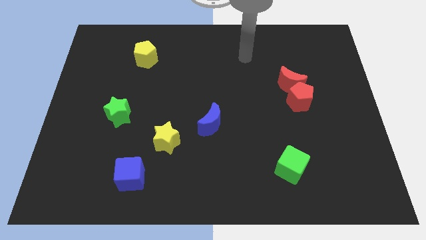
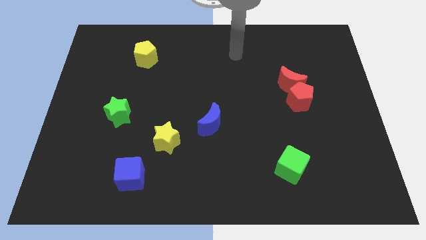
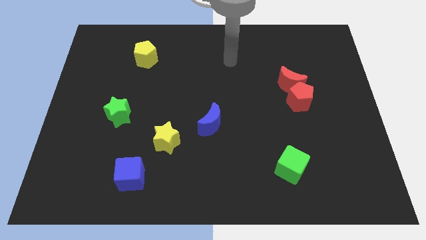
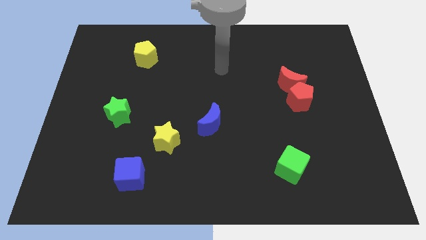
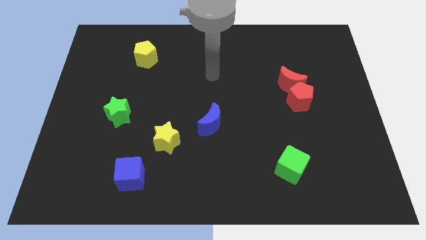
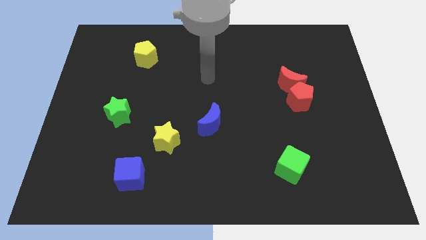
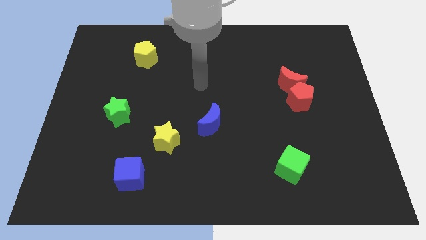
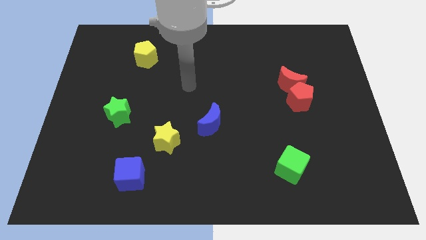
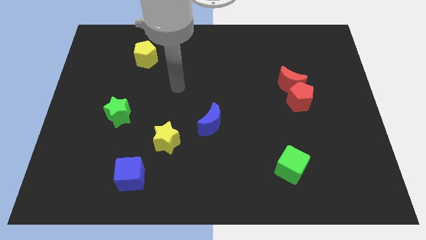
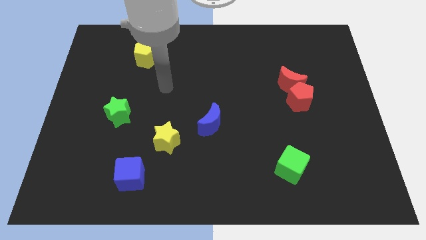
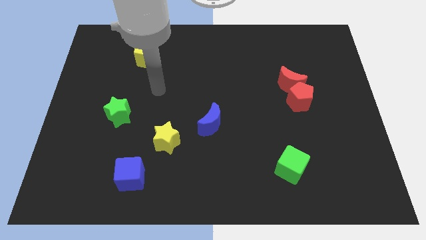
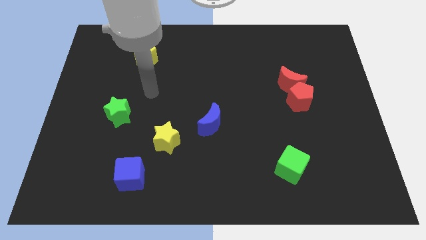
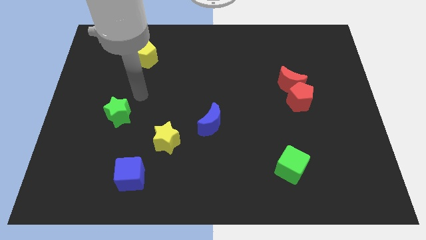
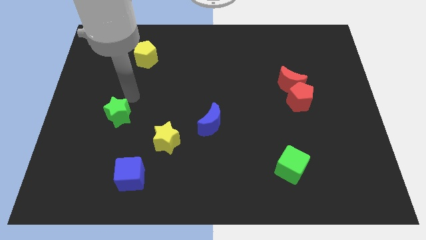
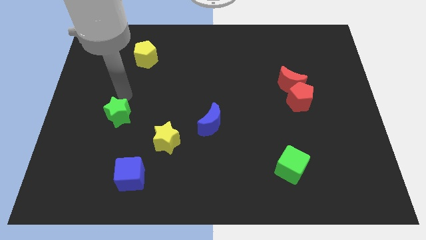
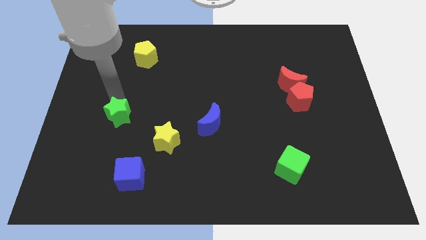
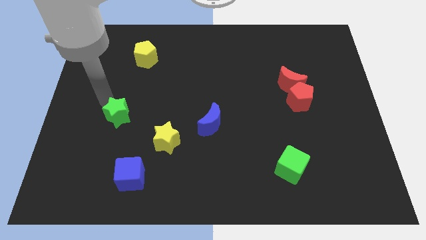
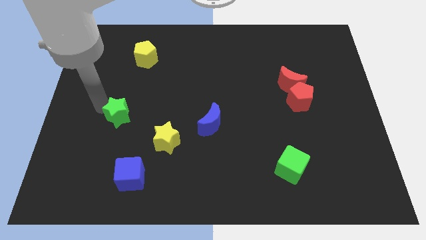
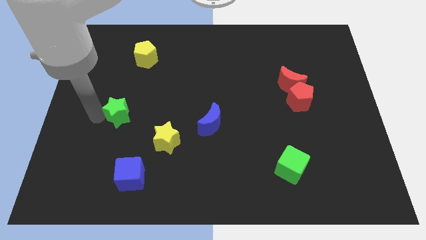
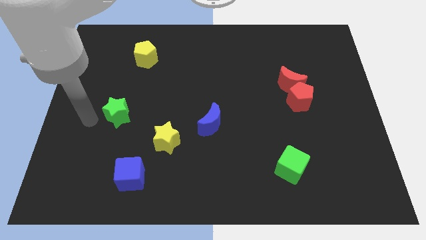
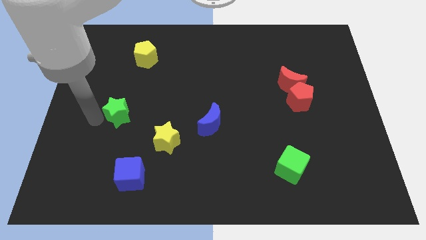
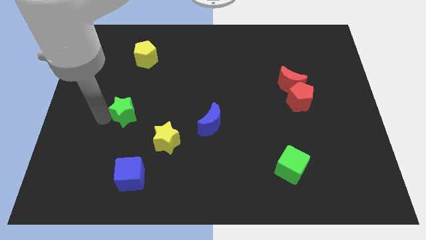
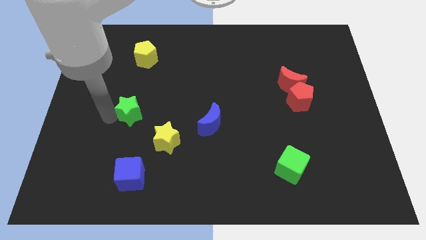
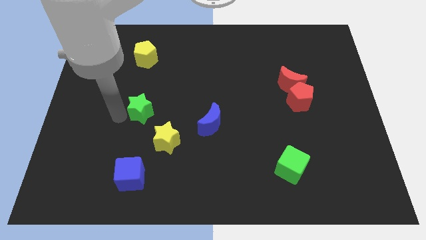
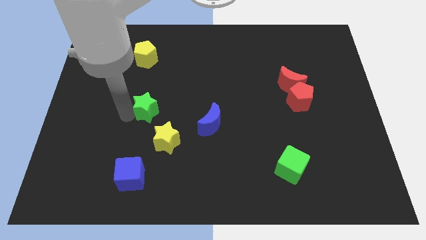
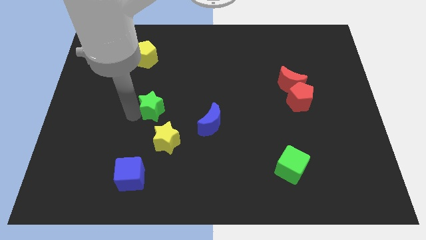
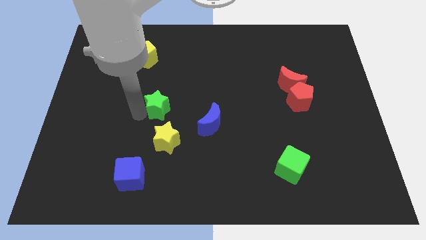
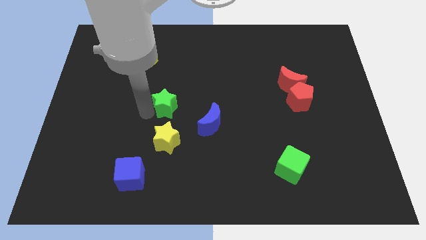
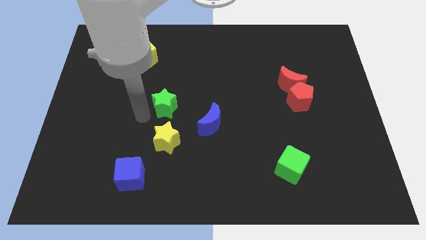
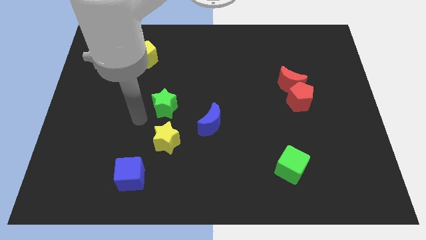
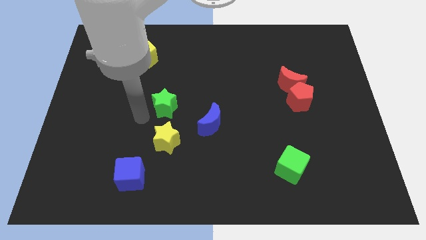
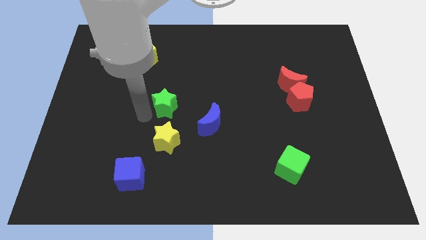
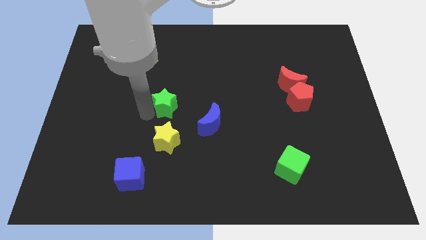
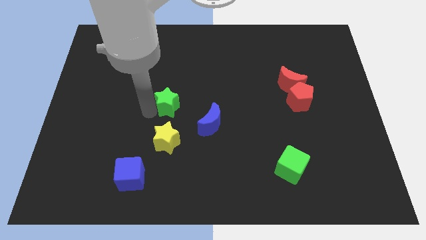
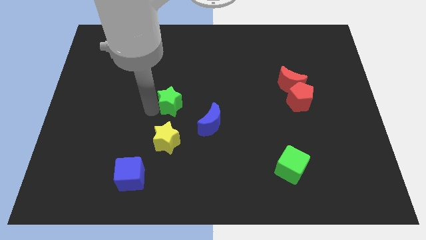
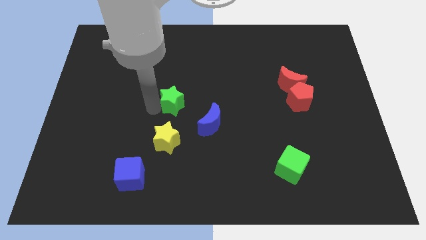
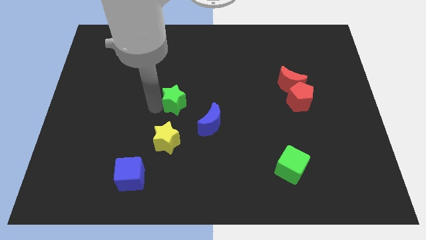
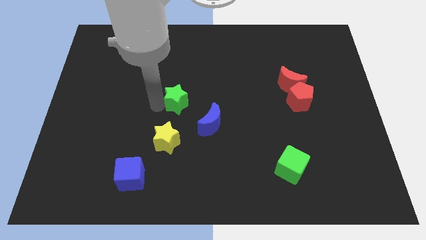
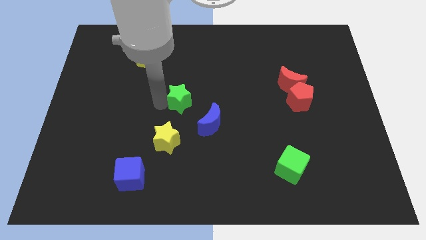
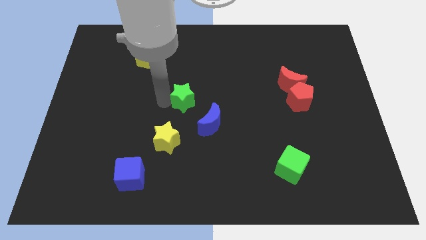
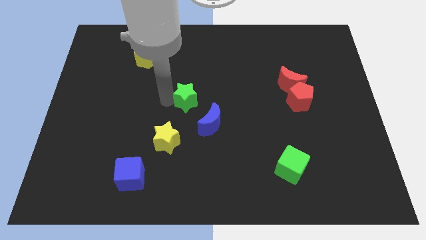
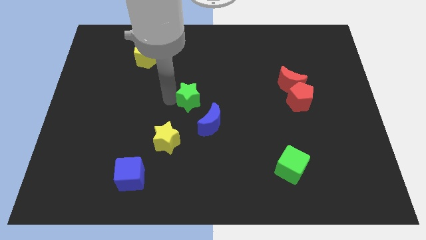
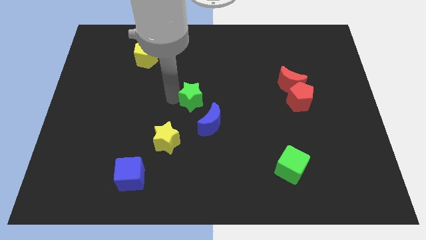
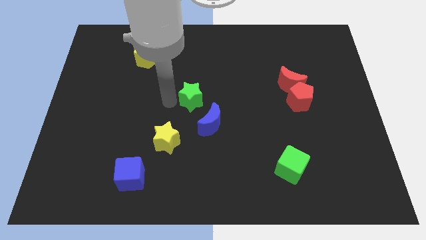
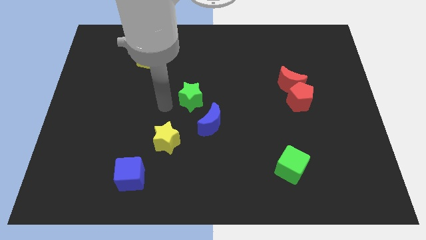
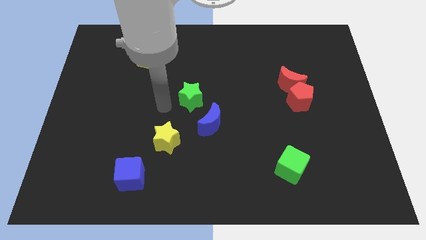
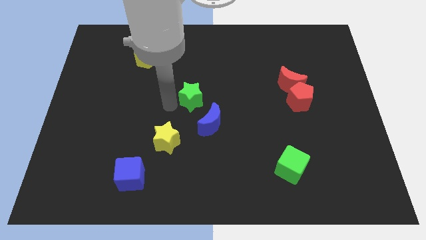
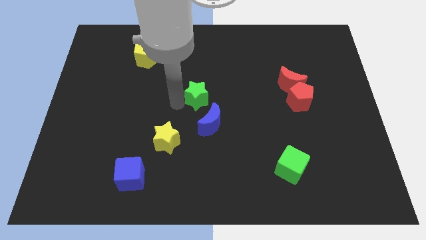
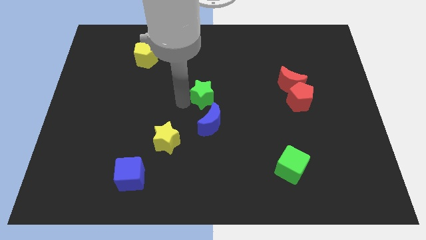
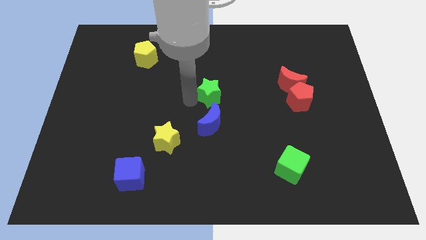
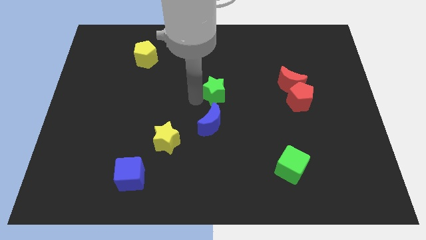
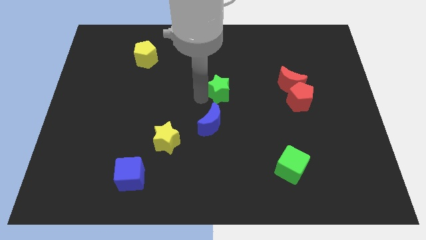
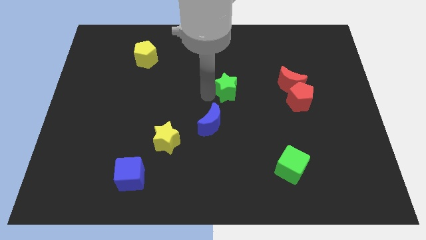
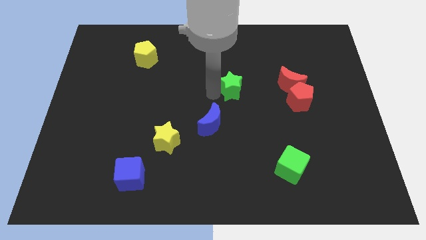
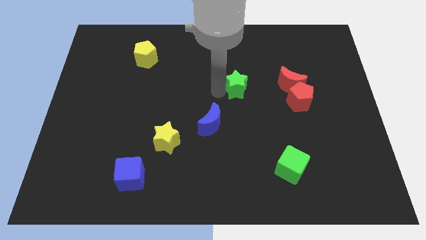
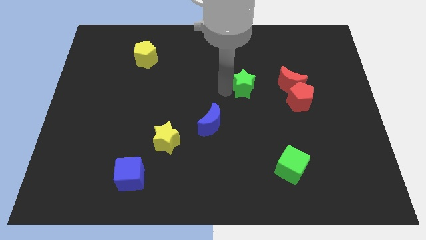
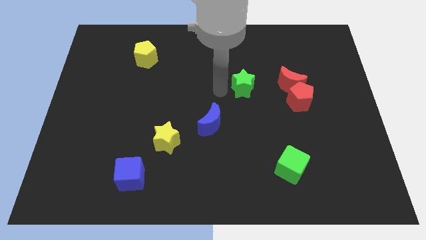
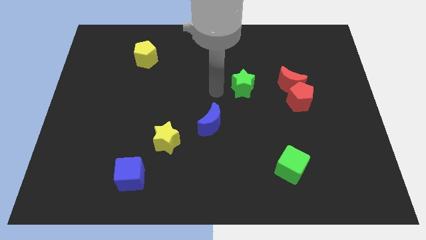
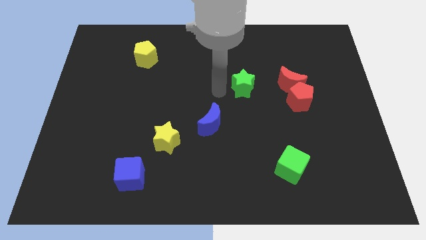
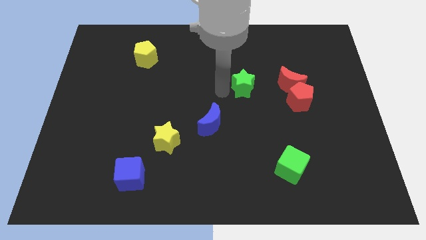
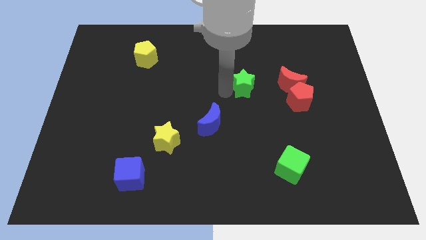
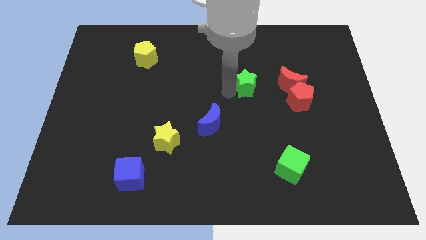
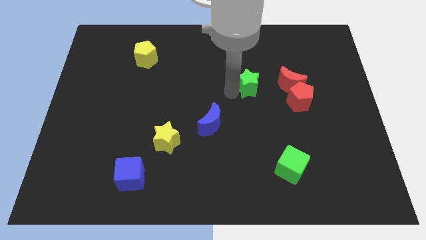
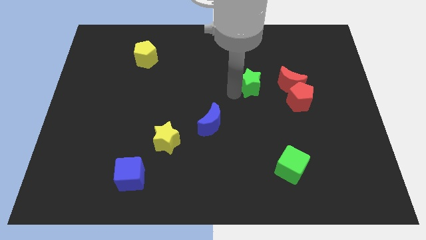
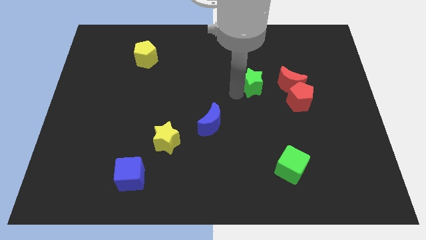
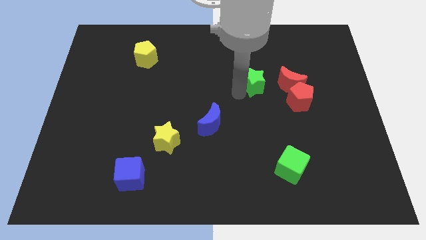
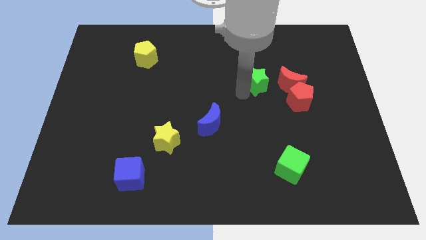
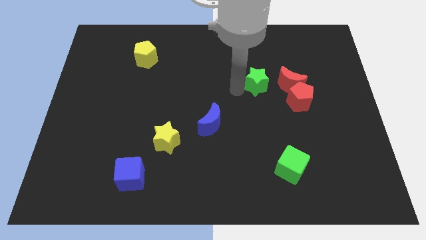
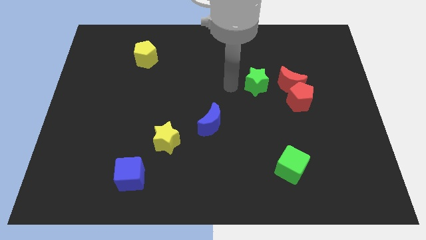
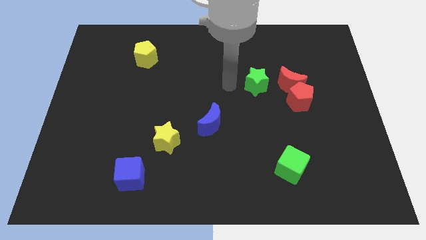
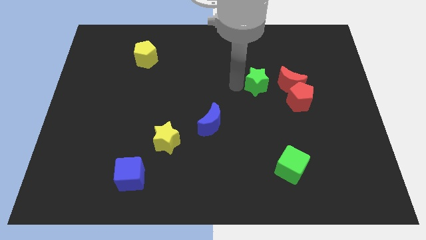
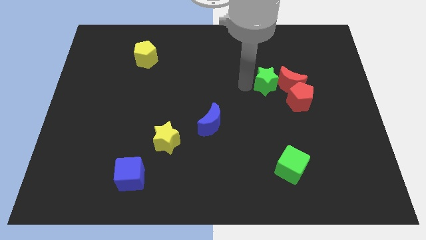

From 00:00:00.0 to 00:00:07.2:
move the green star close to the red moon
